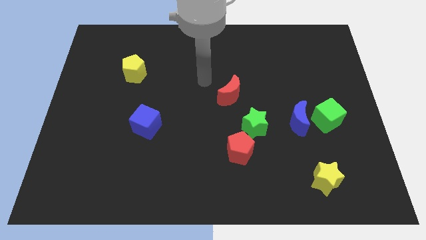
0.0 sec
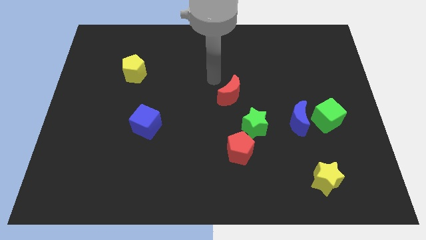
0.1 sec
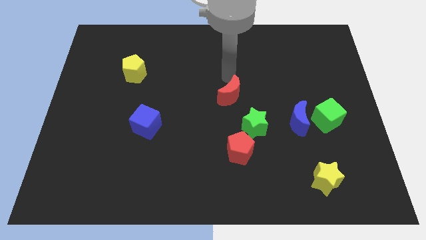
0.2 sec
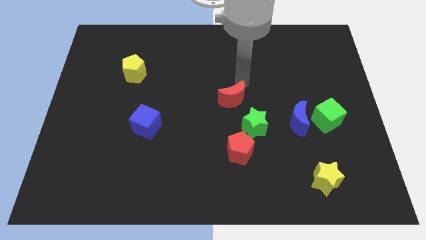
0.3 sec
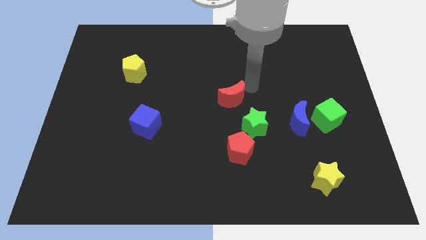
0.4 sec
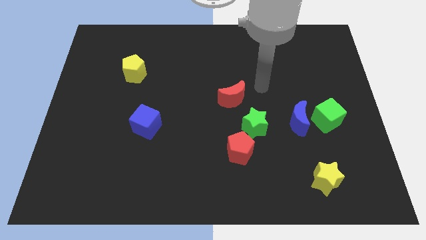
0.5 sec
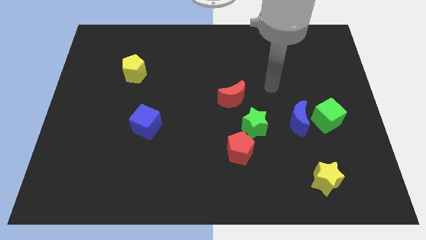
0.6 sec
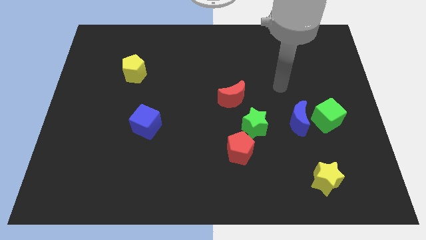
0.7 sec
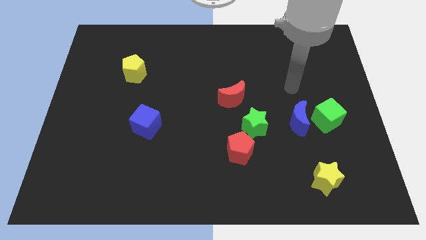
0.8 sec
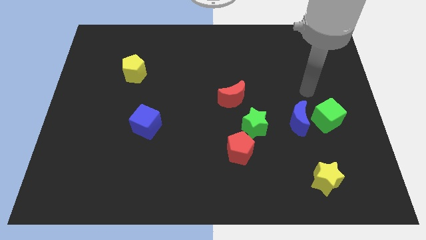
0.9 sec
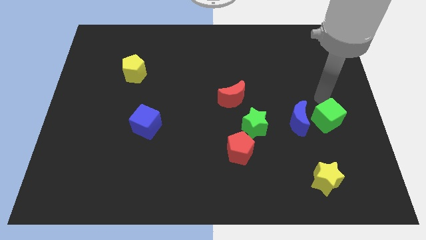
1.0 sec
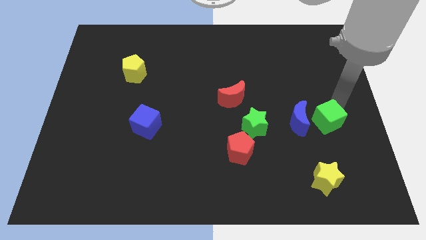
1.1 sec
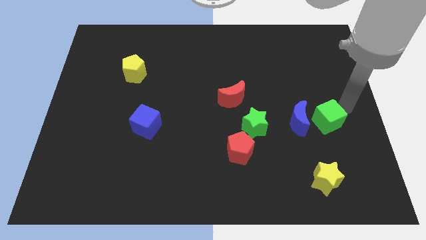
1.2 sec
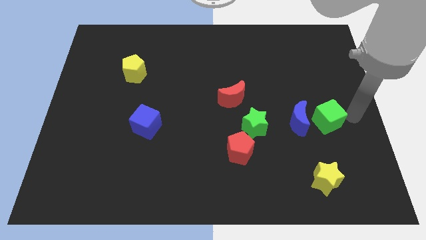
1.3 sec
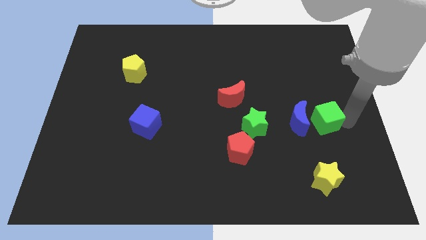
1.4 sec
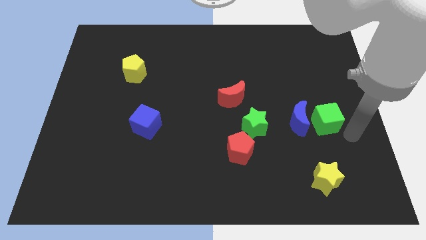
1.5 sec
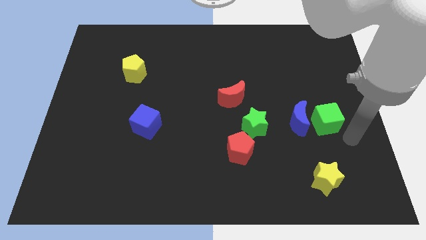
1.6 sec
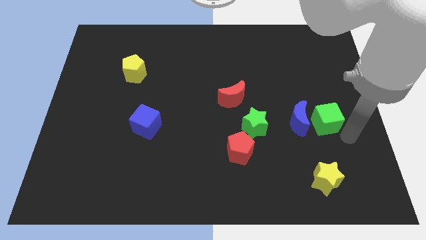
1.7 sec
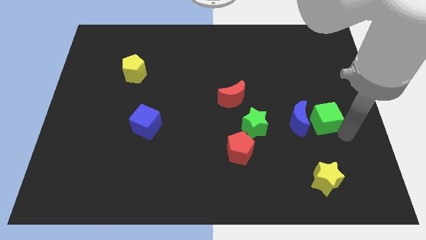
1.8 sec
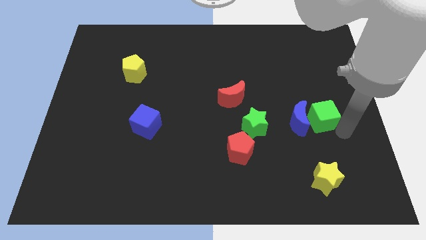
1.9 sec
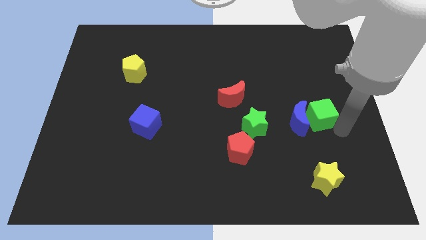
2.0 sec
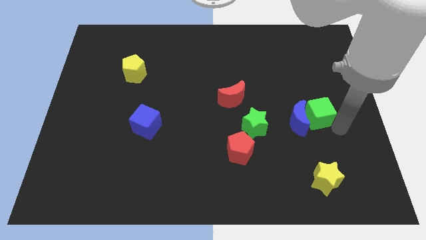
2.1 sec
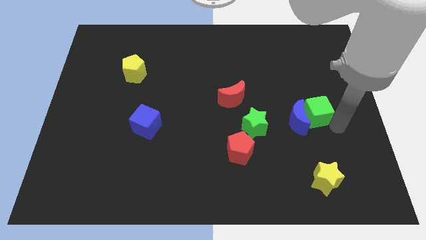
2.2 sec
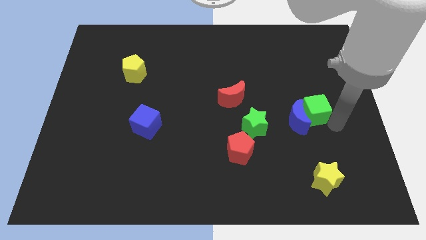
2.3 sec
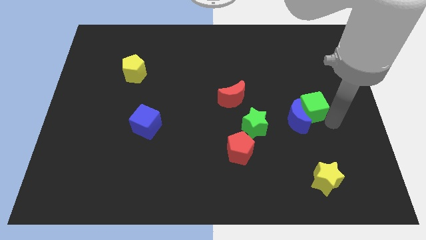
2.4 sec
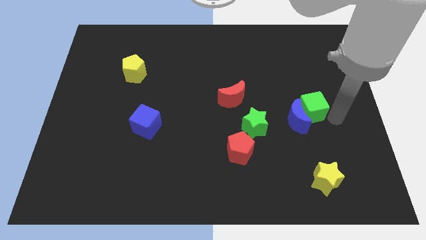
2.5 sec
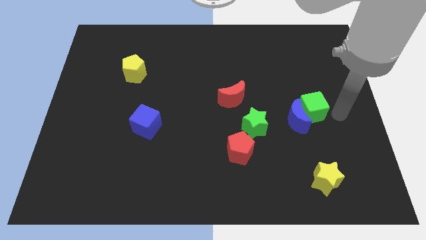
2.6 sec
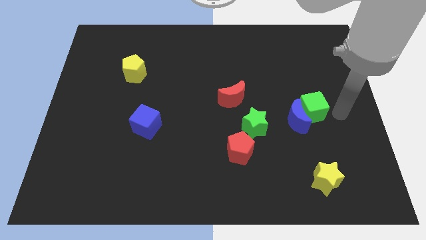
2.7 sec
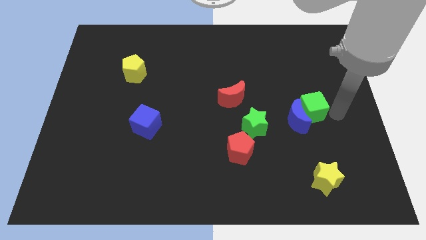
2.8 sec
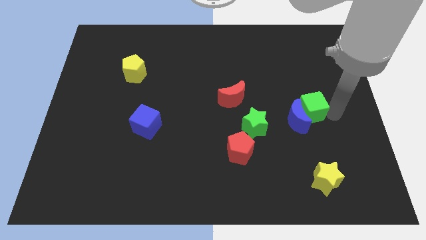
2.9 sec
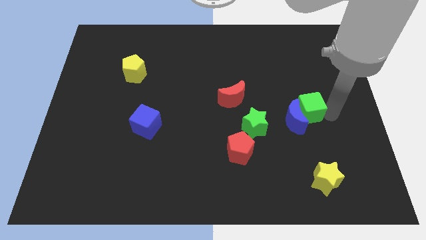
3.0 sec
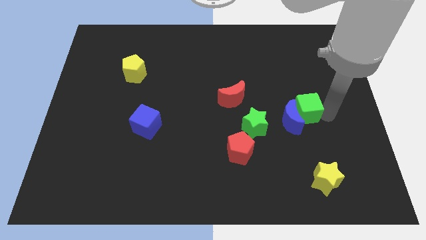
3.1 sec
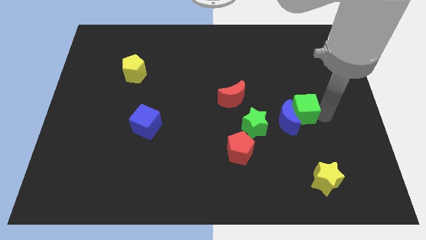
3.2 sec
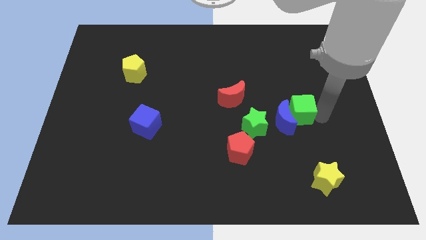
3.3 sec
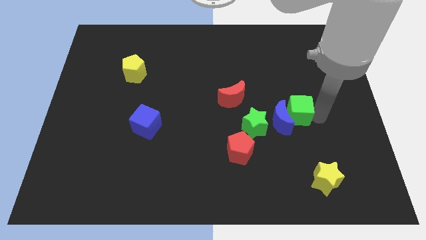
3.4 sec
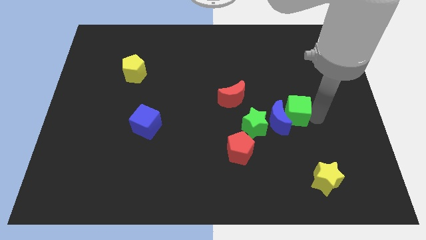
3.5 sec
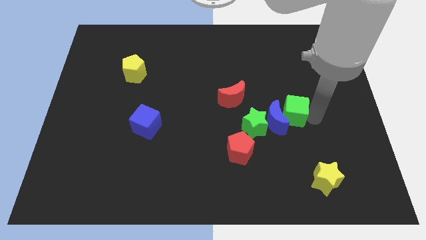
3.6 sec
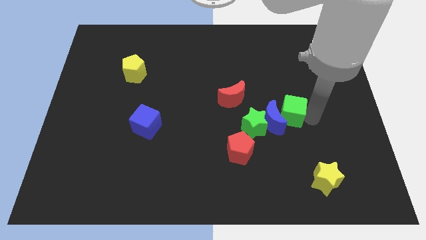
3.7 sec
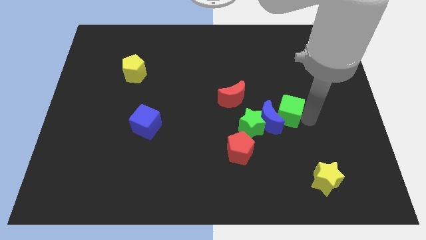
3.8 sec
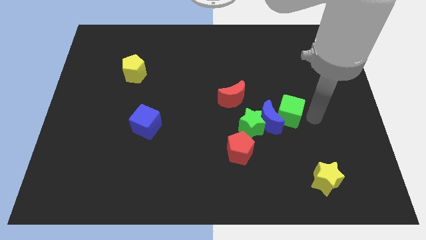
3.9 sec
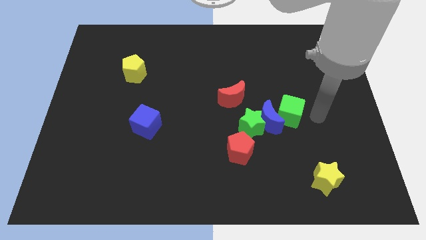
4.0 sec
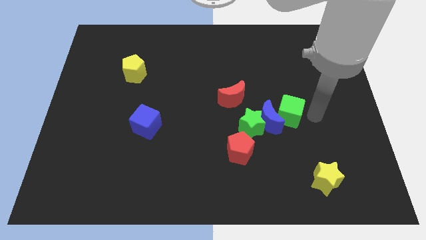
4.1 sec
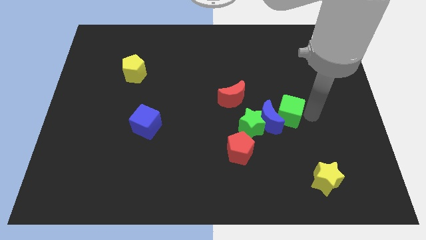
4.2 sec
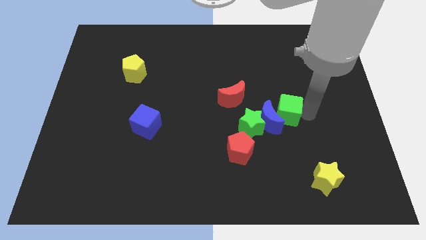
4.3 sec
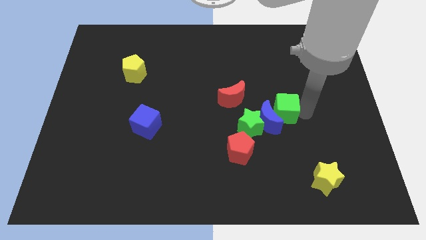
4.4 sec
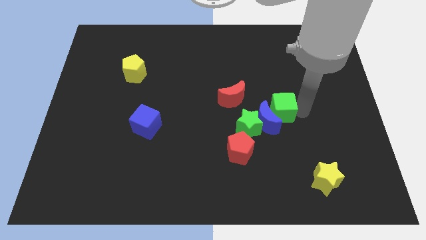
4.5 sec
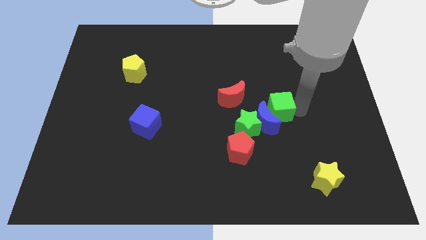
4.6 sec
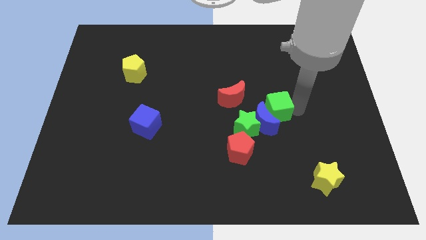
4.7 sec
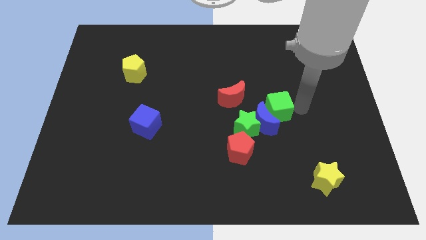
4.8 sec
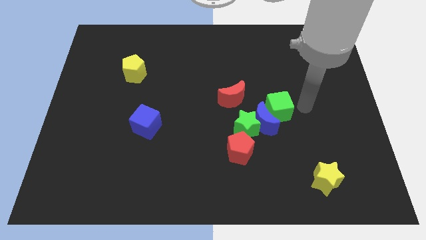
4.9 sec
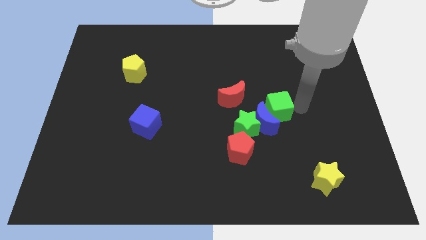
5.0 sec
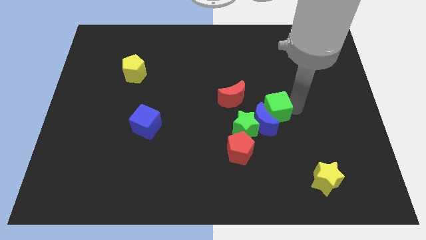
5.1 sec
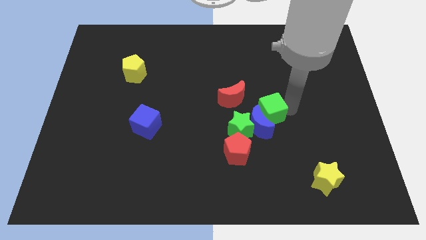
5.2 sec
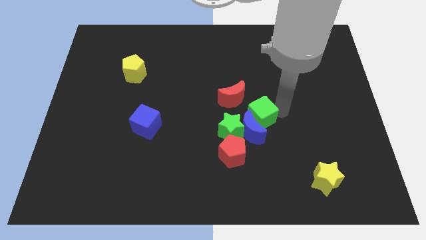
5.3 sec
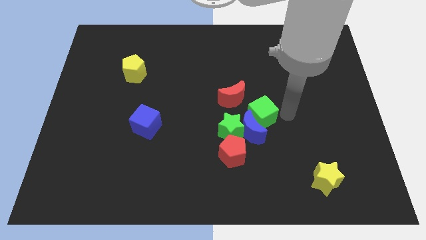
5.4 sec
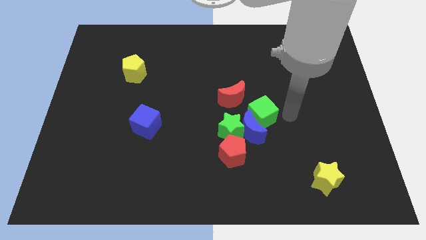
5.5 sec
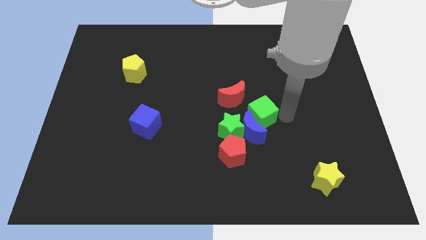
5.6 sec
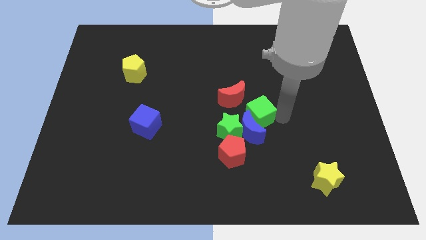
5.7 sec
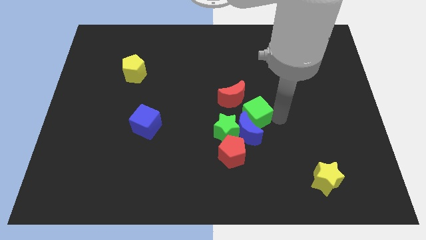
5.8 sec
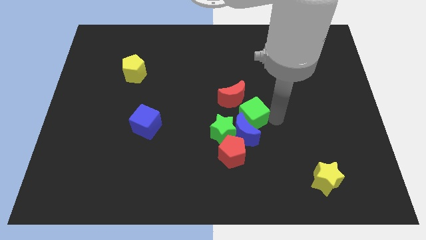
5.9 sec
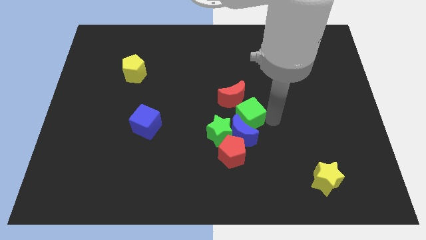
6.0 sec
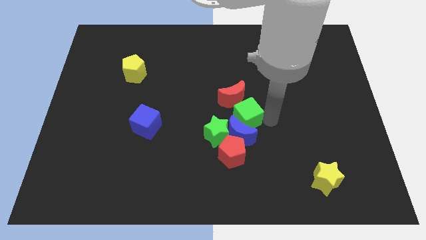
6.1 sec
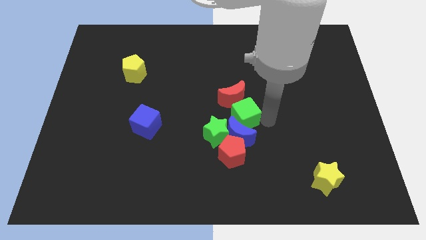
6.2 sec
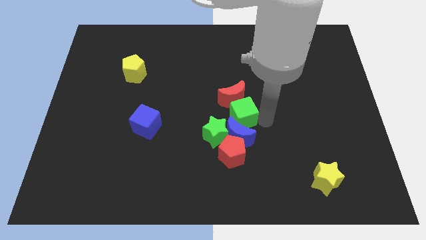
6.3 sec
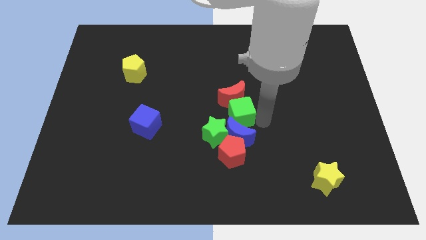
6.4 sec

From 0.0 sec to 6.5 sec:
slide the green cube to the bottom left side of the red moon
